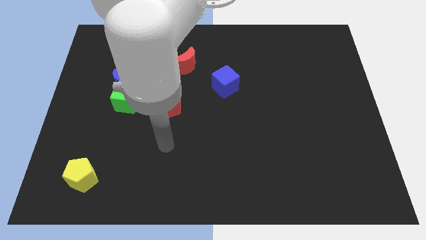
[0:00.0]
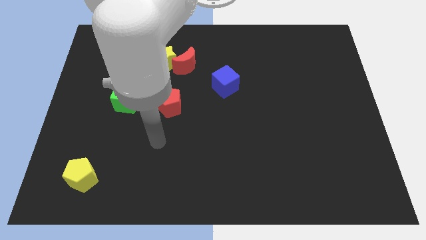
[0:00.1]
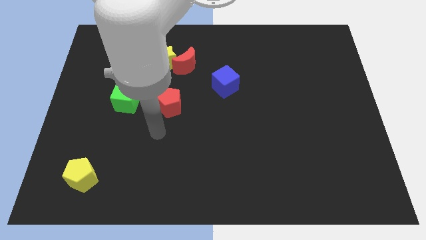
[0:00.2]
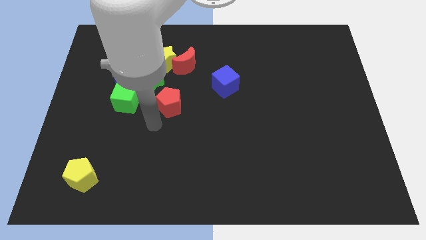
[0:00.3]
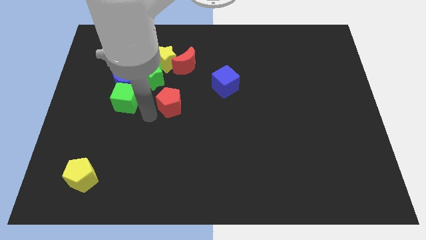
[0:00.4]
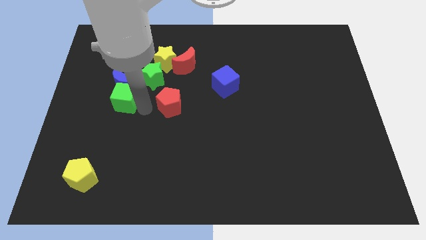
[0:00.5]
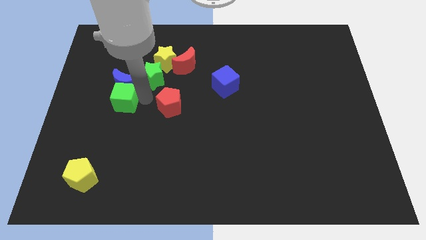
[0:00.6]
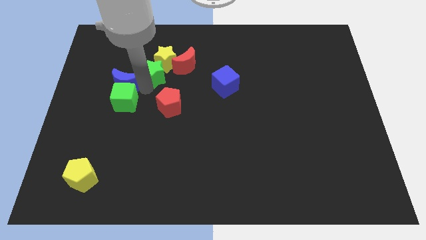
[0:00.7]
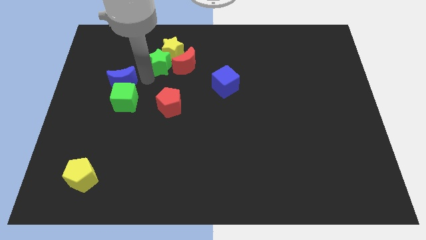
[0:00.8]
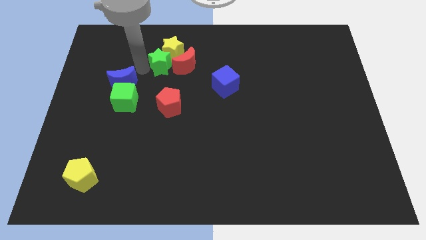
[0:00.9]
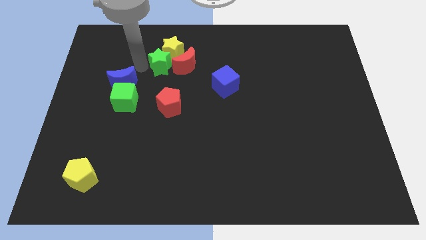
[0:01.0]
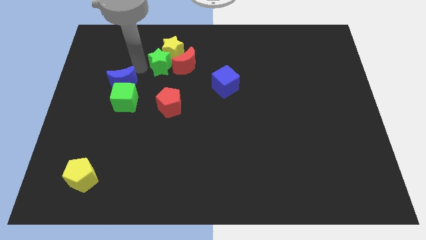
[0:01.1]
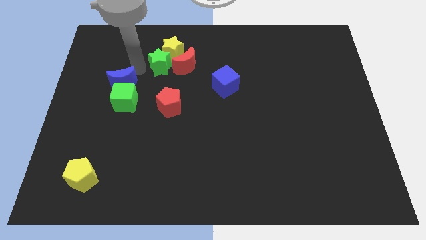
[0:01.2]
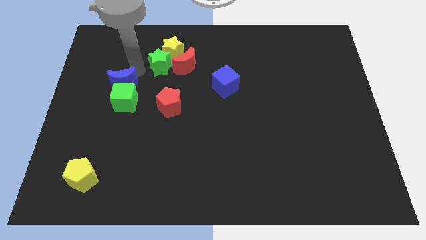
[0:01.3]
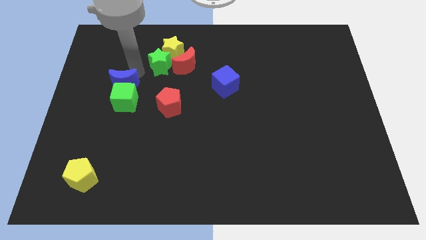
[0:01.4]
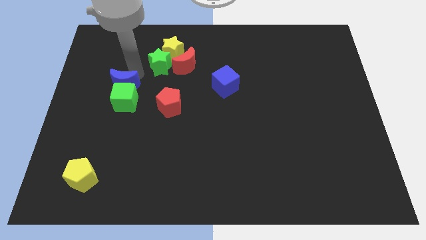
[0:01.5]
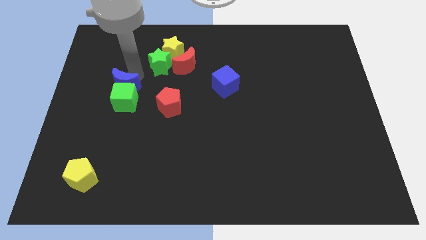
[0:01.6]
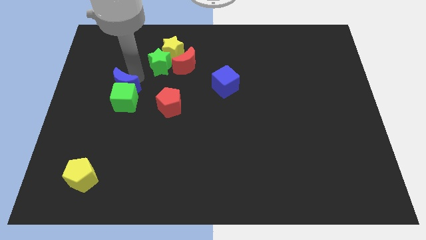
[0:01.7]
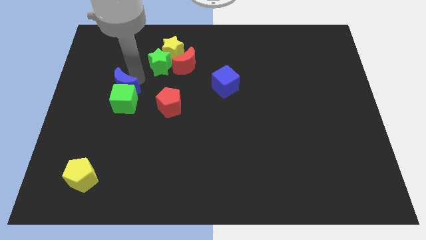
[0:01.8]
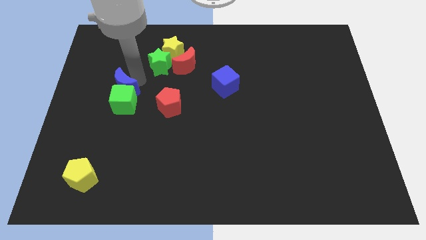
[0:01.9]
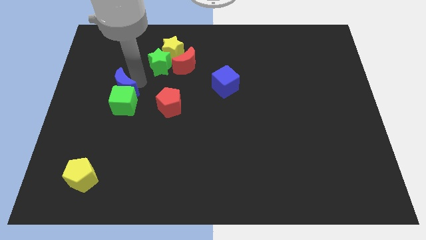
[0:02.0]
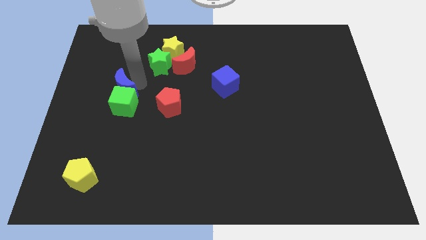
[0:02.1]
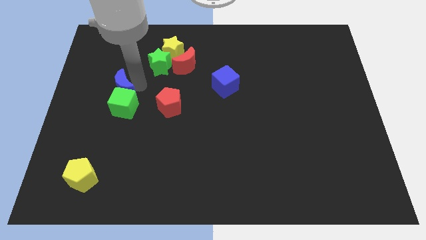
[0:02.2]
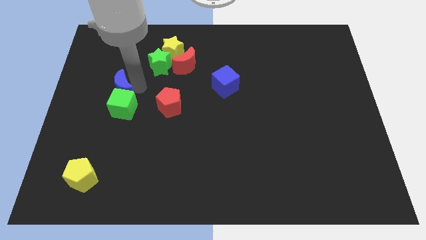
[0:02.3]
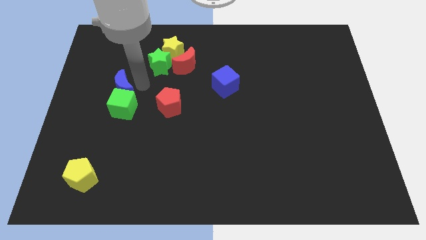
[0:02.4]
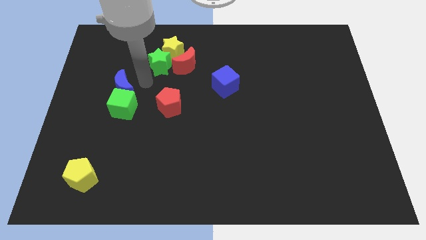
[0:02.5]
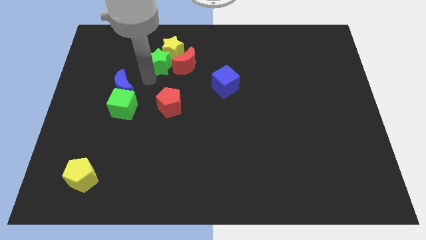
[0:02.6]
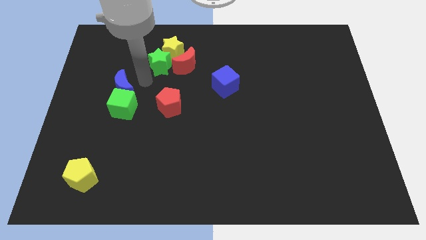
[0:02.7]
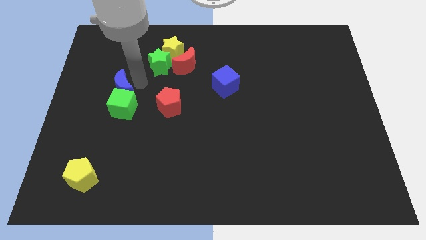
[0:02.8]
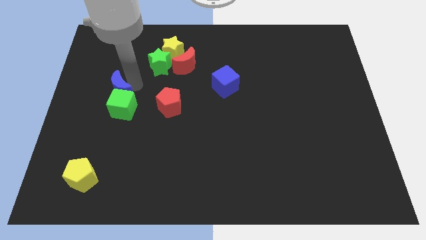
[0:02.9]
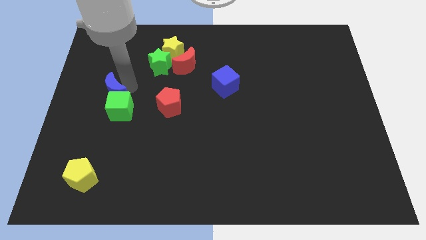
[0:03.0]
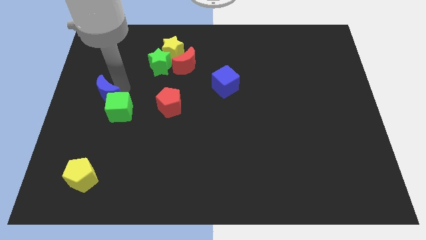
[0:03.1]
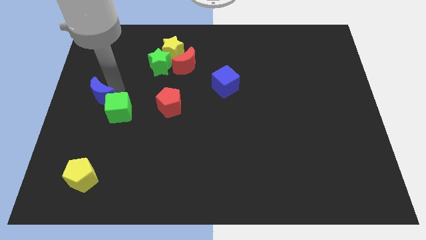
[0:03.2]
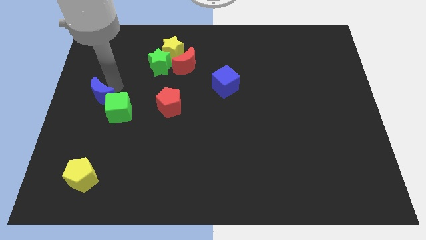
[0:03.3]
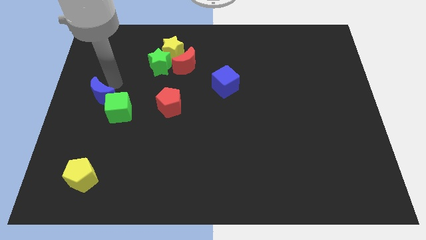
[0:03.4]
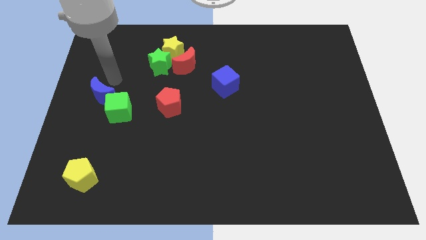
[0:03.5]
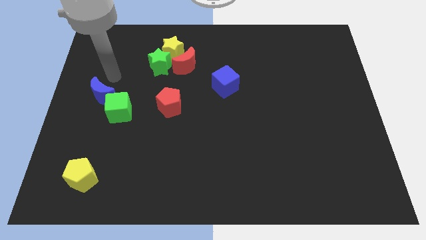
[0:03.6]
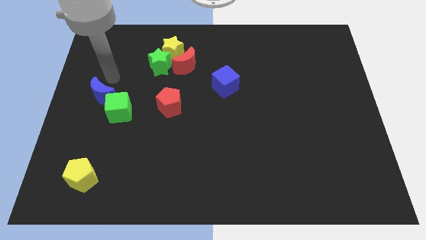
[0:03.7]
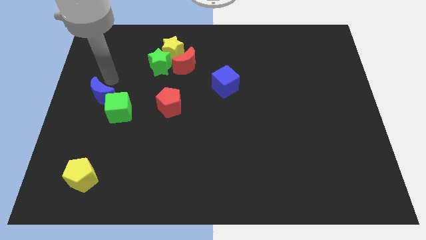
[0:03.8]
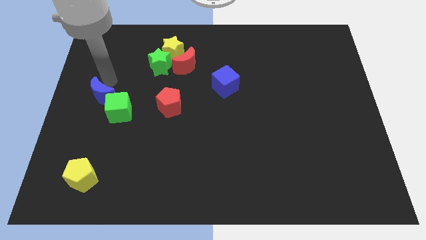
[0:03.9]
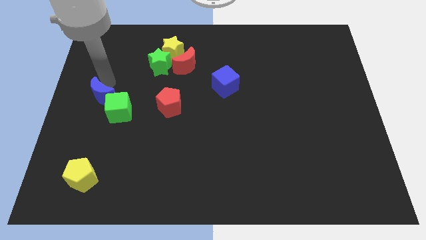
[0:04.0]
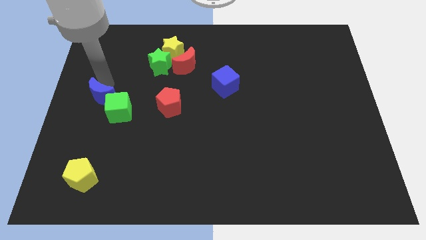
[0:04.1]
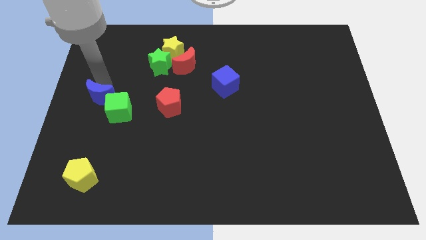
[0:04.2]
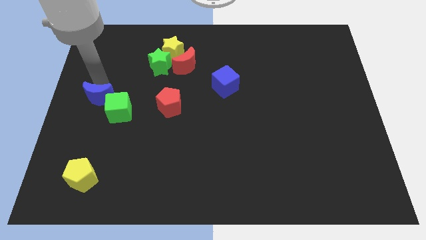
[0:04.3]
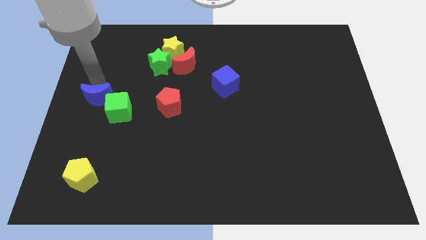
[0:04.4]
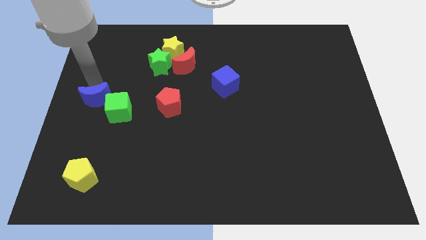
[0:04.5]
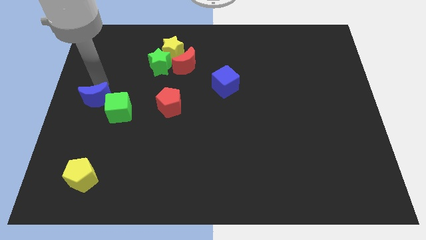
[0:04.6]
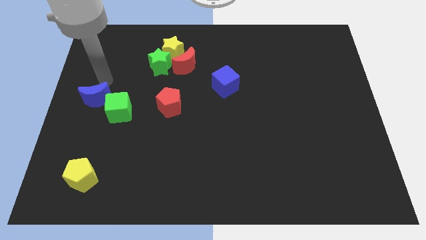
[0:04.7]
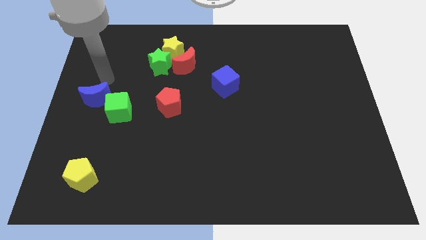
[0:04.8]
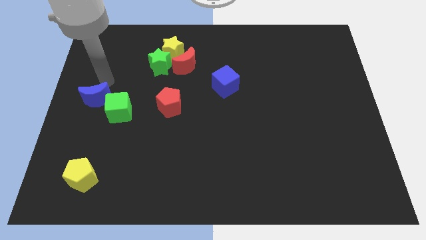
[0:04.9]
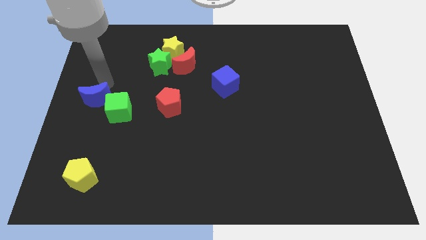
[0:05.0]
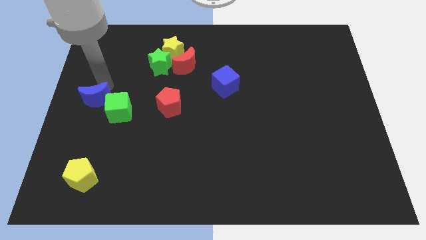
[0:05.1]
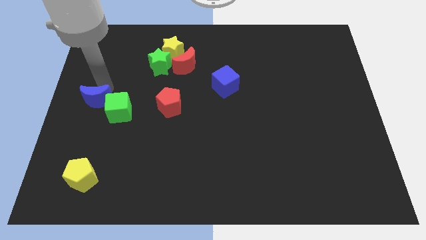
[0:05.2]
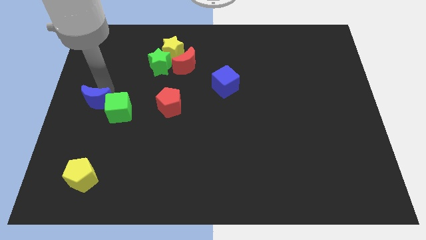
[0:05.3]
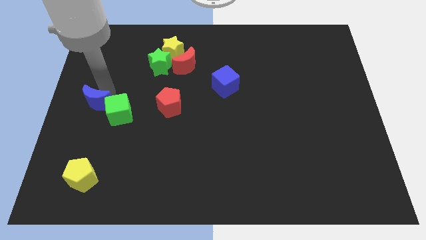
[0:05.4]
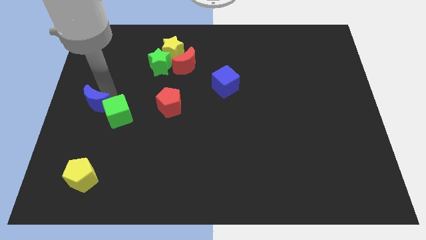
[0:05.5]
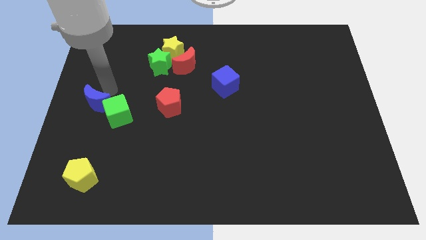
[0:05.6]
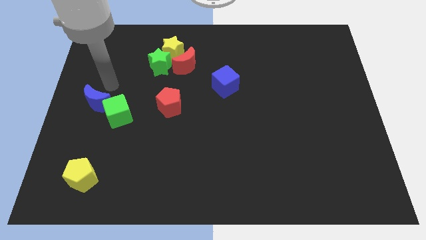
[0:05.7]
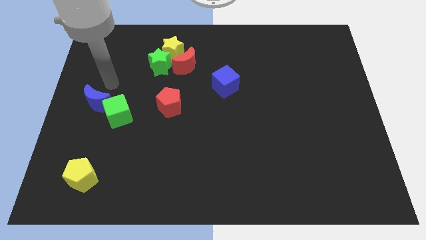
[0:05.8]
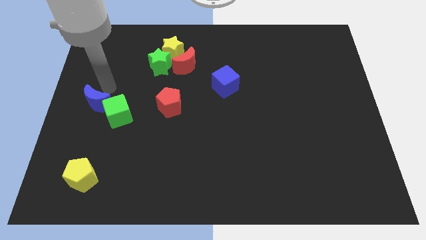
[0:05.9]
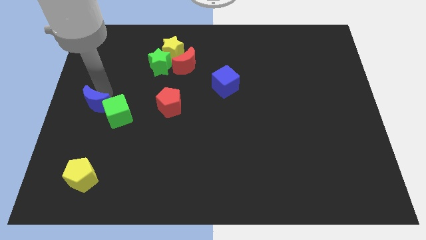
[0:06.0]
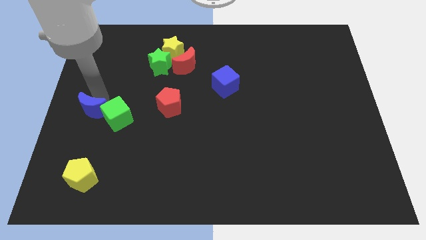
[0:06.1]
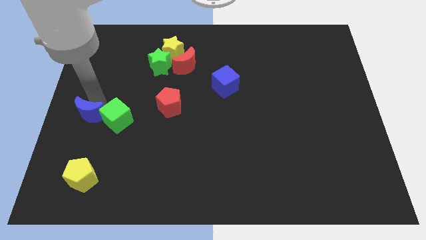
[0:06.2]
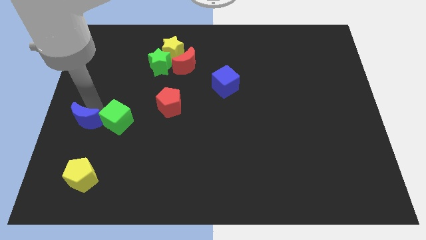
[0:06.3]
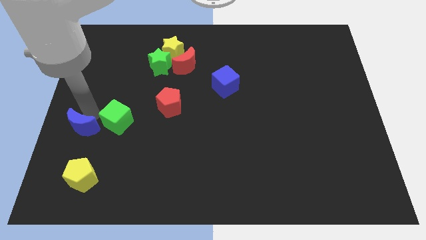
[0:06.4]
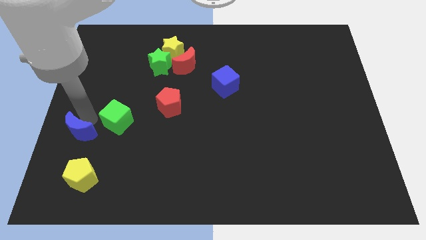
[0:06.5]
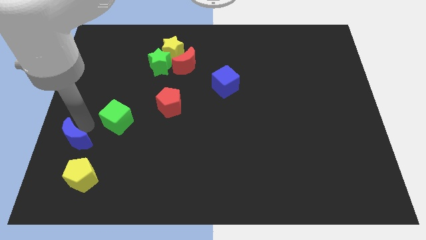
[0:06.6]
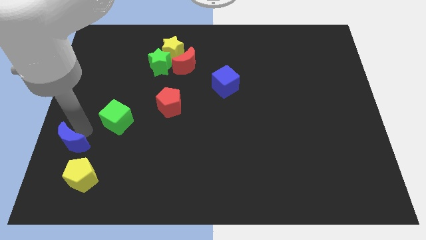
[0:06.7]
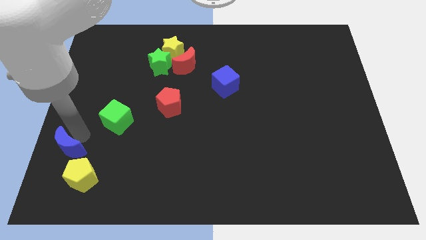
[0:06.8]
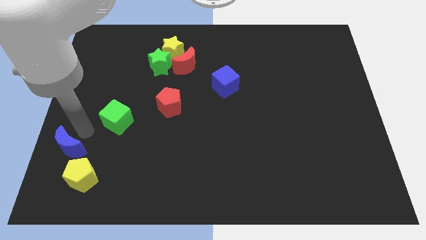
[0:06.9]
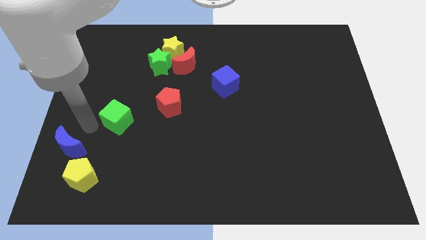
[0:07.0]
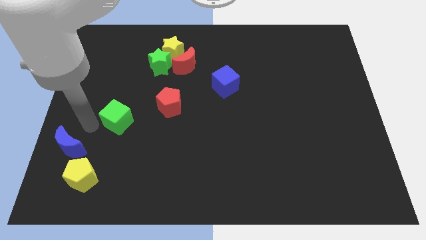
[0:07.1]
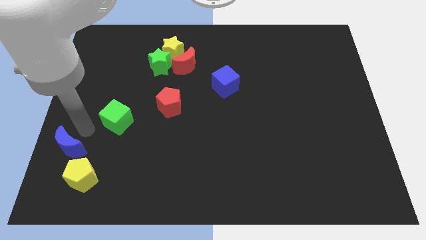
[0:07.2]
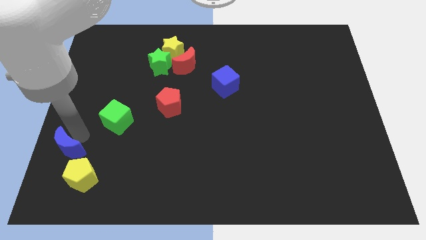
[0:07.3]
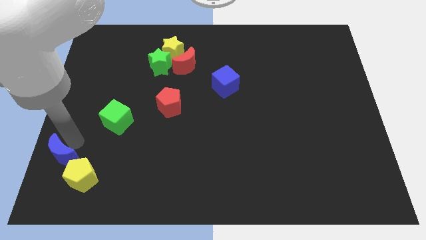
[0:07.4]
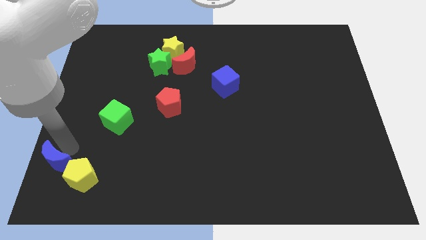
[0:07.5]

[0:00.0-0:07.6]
put the blue moon to the lower left corner
